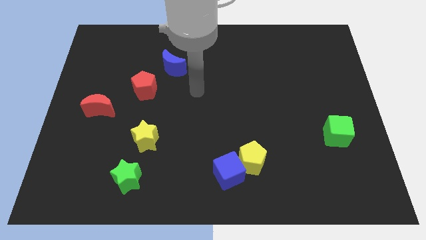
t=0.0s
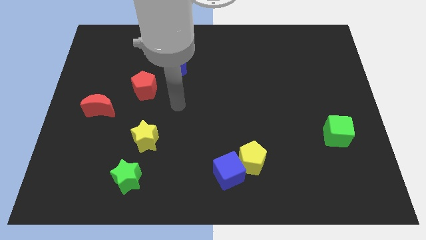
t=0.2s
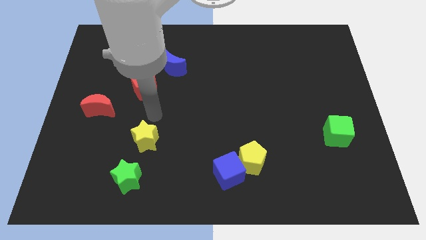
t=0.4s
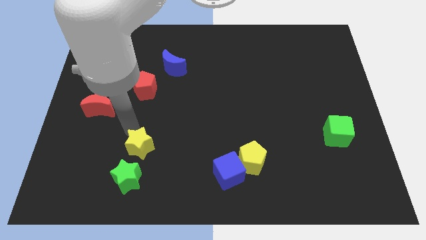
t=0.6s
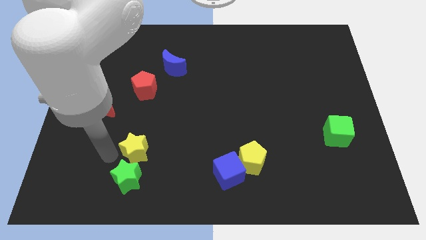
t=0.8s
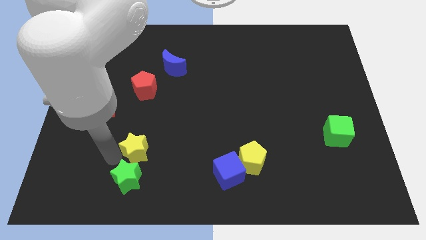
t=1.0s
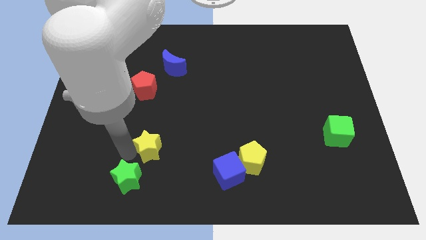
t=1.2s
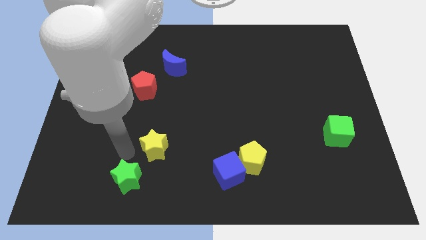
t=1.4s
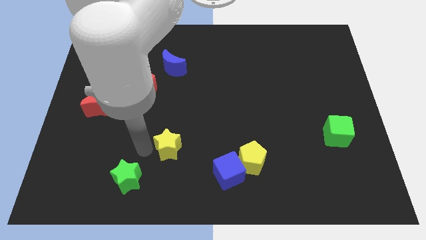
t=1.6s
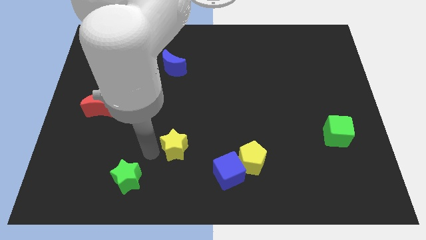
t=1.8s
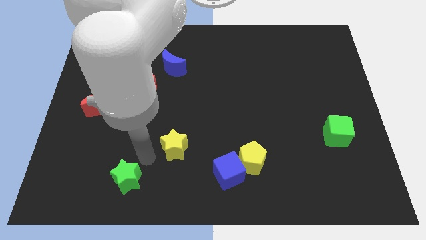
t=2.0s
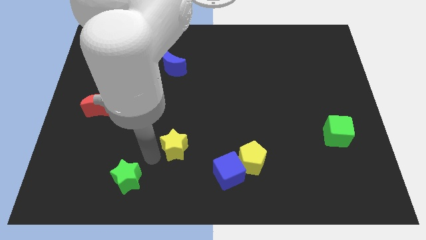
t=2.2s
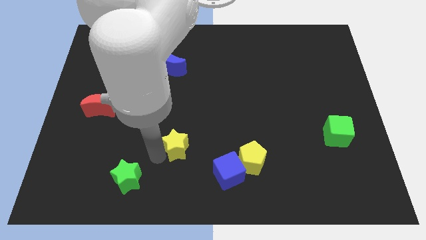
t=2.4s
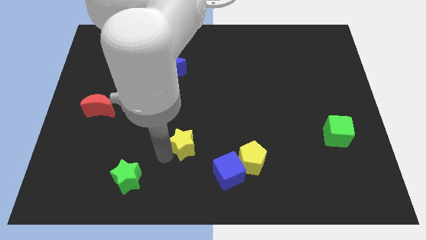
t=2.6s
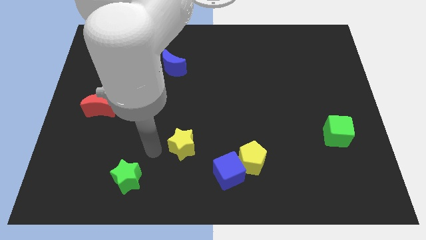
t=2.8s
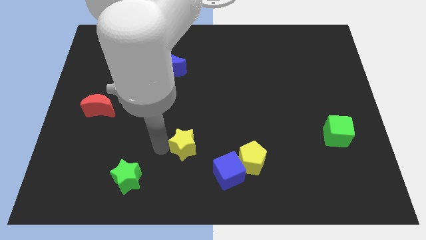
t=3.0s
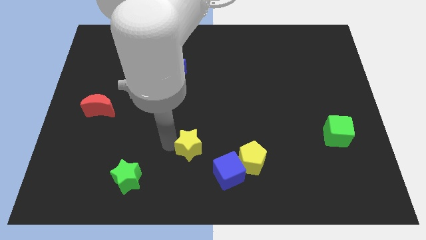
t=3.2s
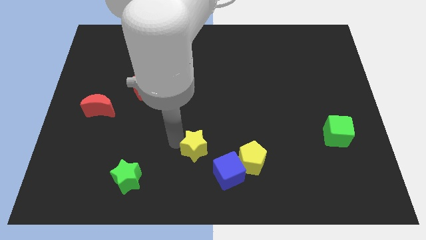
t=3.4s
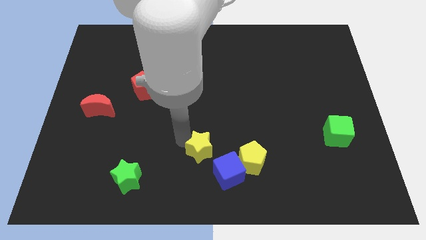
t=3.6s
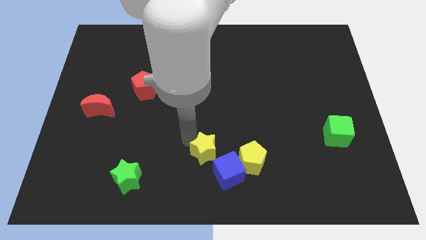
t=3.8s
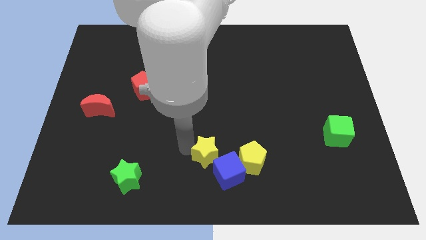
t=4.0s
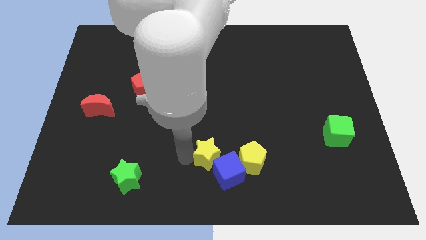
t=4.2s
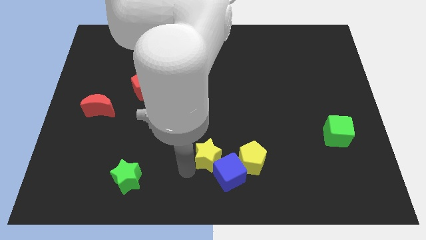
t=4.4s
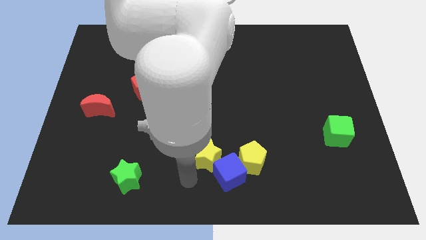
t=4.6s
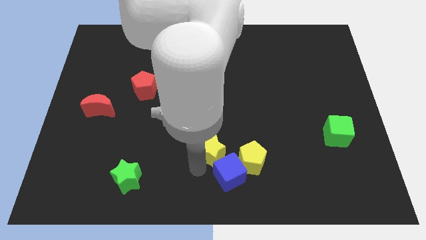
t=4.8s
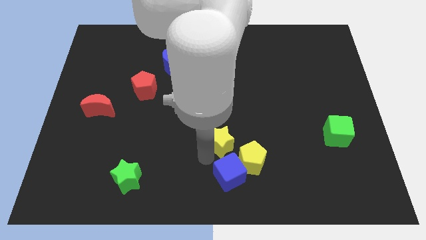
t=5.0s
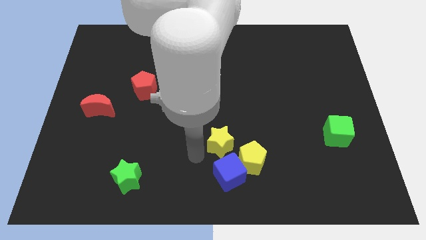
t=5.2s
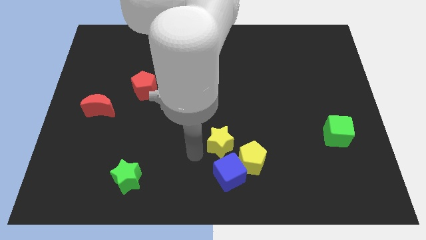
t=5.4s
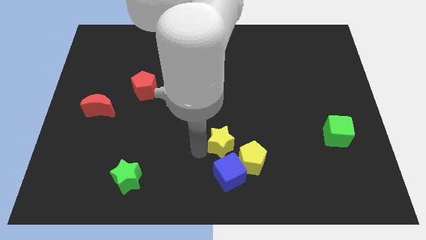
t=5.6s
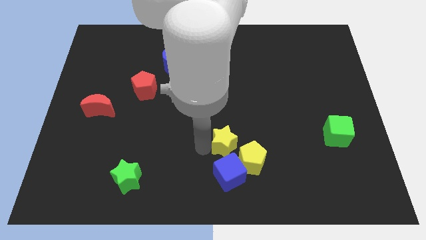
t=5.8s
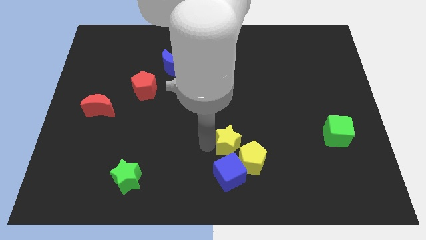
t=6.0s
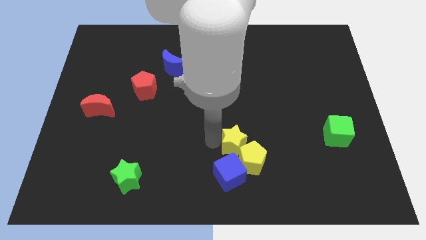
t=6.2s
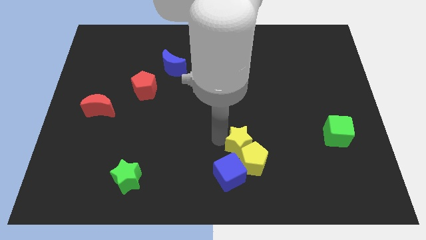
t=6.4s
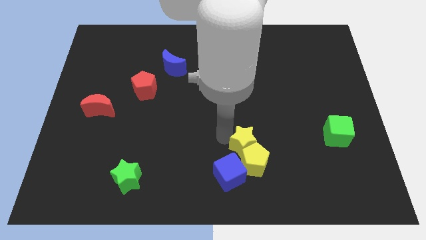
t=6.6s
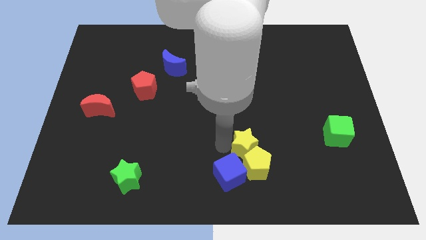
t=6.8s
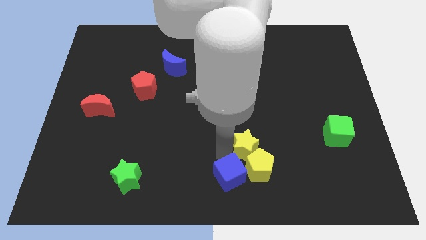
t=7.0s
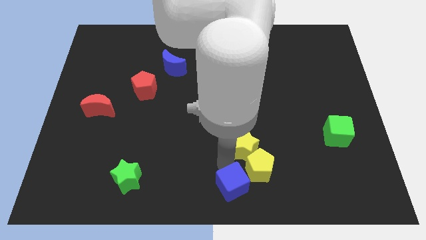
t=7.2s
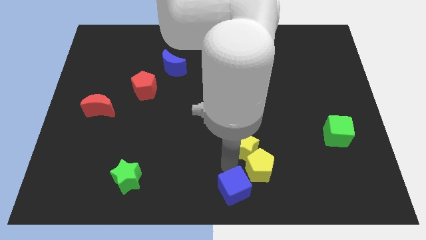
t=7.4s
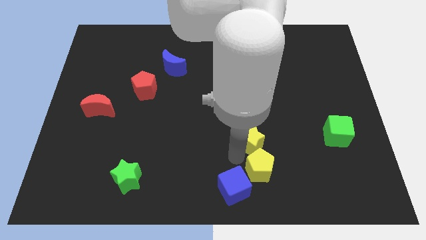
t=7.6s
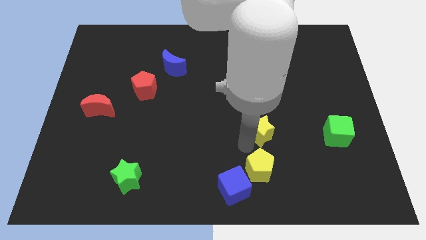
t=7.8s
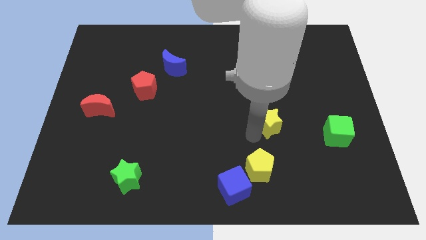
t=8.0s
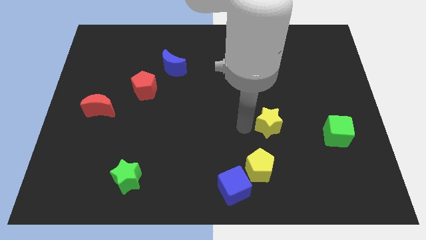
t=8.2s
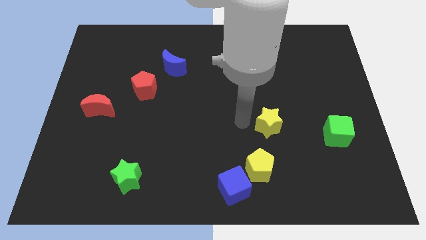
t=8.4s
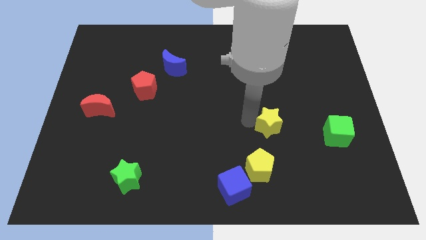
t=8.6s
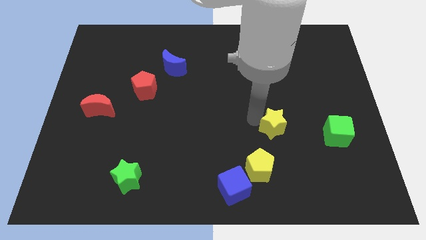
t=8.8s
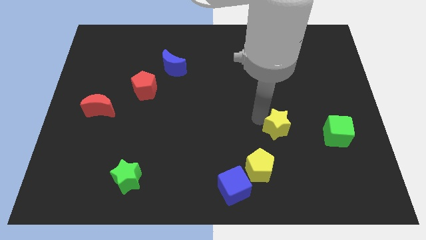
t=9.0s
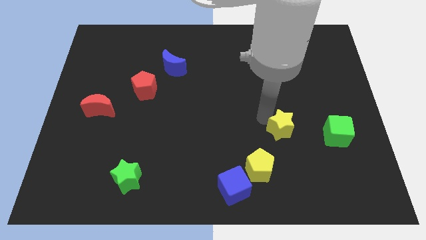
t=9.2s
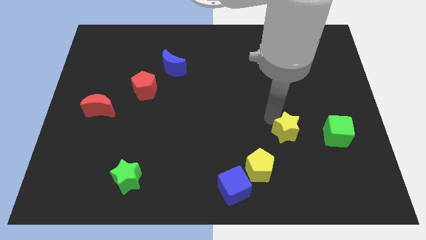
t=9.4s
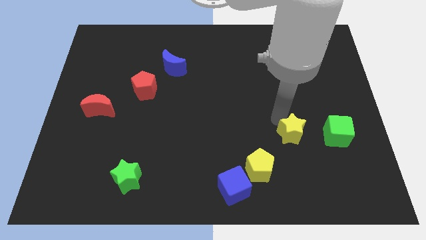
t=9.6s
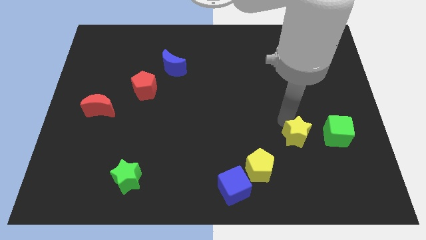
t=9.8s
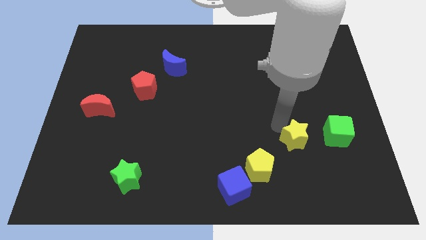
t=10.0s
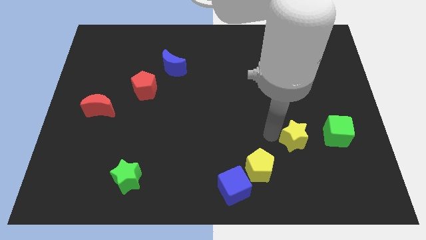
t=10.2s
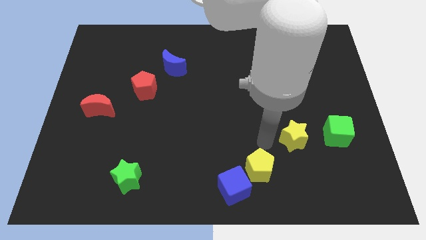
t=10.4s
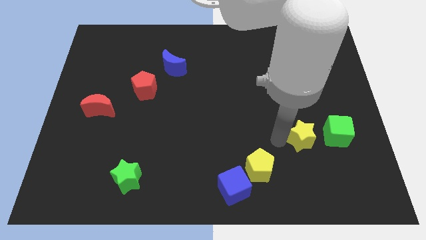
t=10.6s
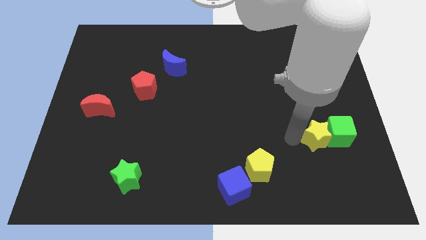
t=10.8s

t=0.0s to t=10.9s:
put the yellow star to the green cube
